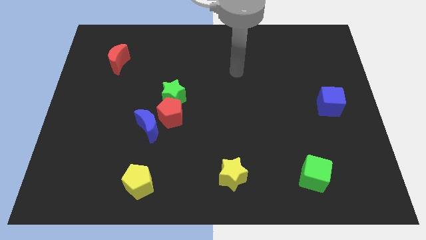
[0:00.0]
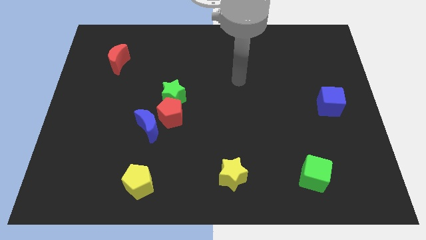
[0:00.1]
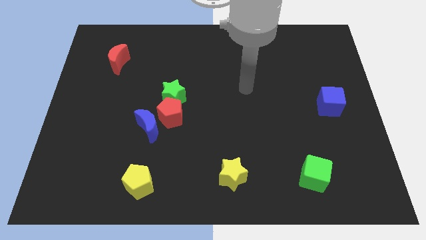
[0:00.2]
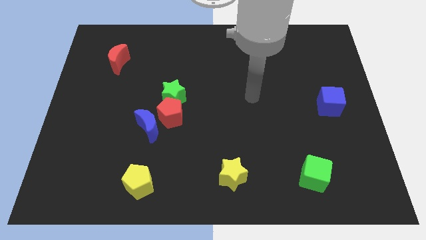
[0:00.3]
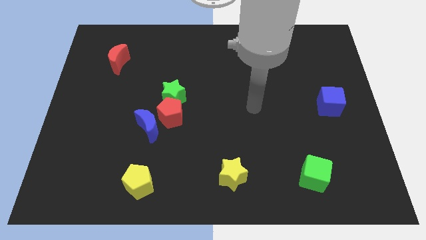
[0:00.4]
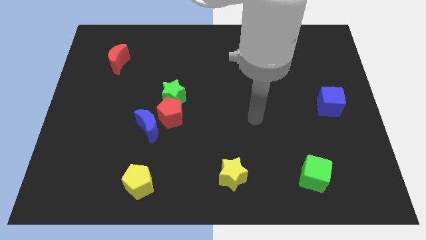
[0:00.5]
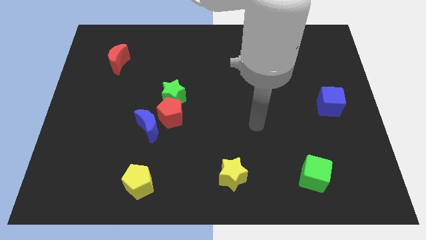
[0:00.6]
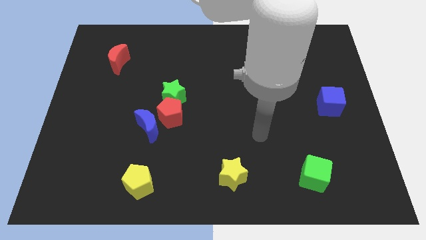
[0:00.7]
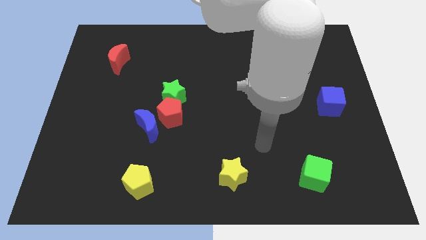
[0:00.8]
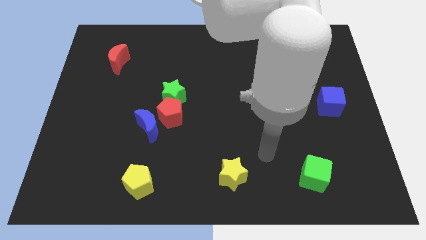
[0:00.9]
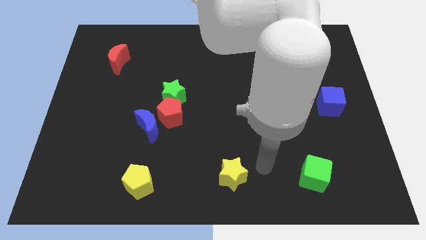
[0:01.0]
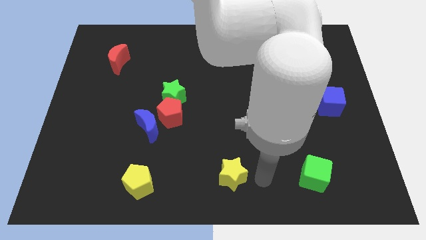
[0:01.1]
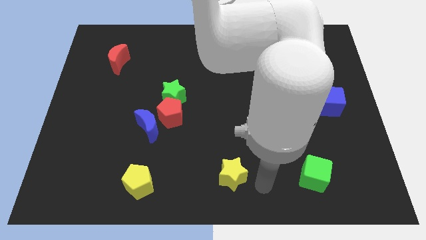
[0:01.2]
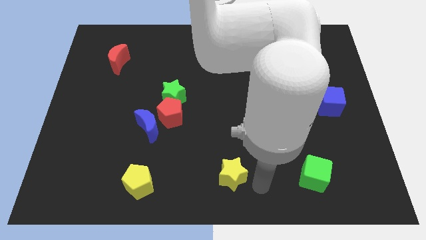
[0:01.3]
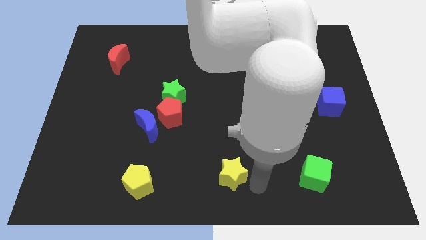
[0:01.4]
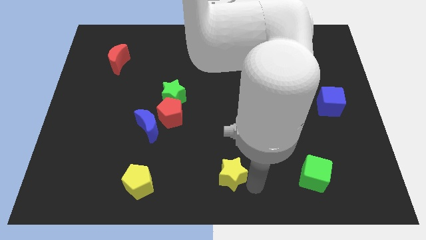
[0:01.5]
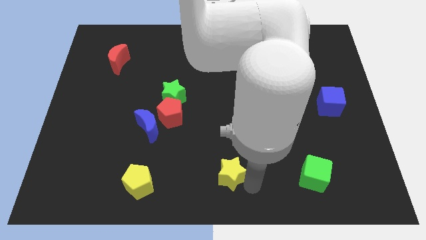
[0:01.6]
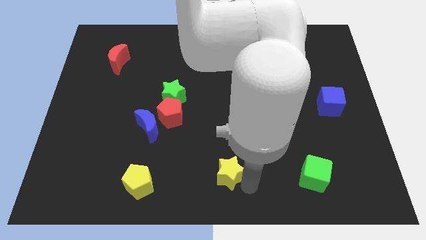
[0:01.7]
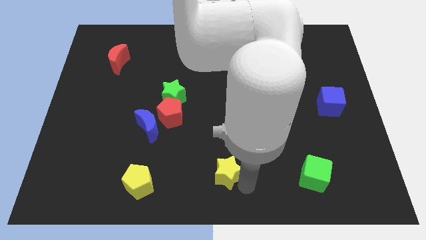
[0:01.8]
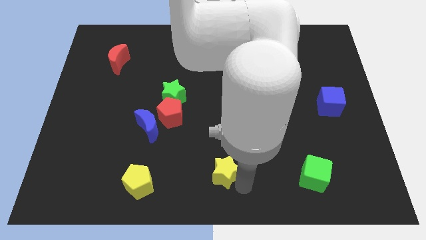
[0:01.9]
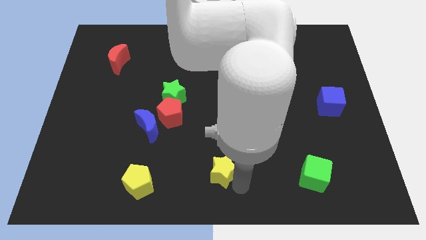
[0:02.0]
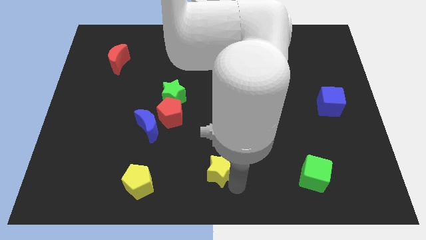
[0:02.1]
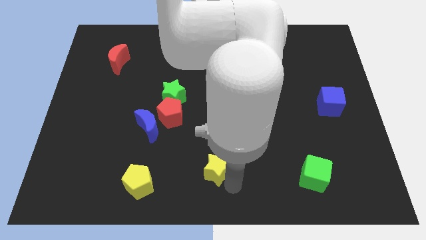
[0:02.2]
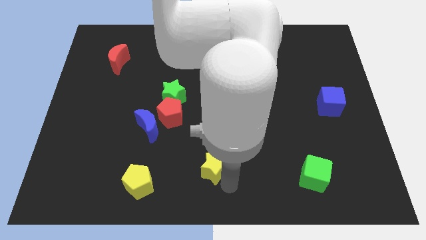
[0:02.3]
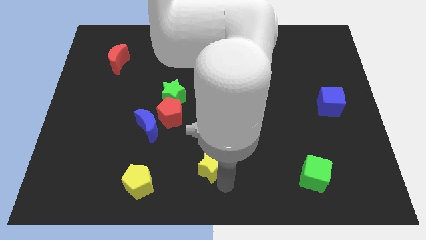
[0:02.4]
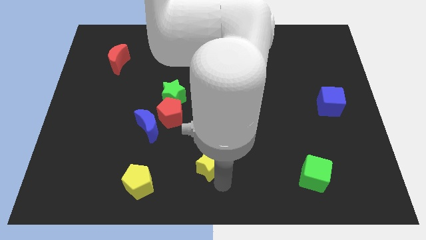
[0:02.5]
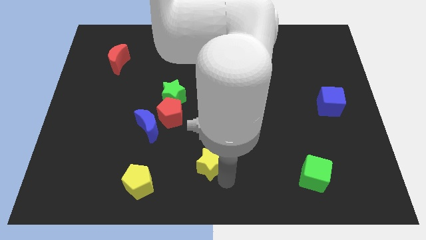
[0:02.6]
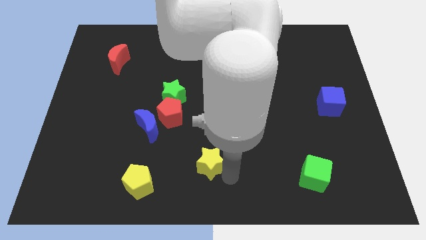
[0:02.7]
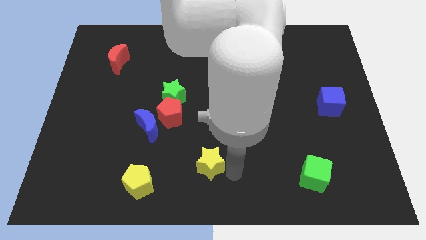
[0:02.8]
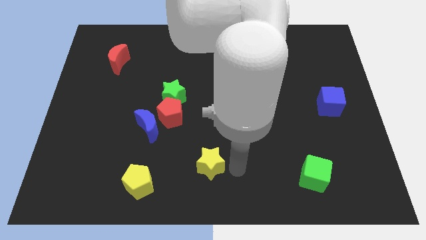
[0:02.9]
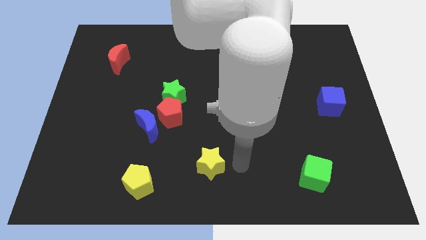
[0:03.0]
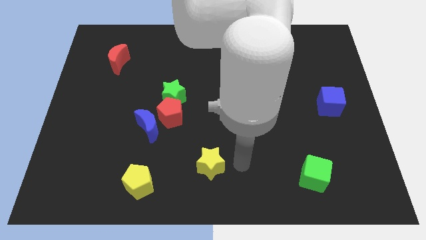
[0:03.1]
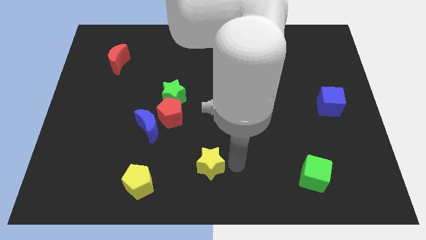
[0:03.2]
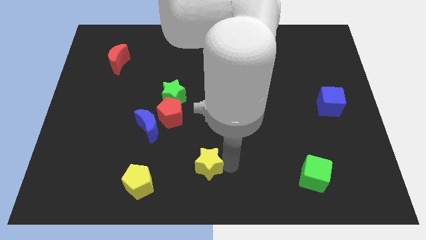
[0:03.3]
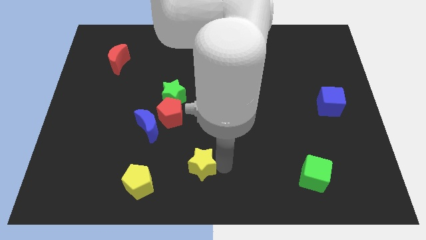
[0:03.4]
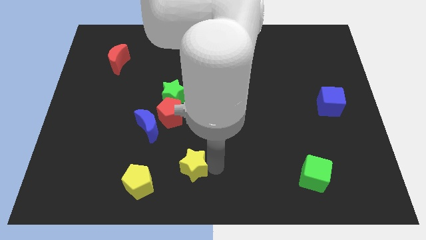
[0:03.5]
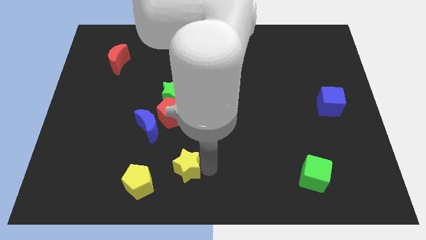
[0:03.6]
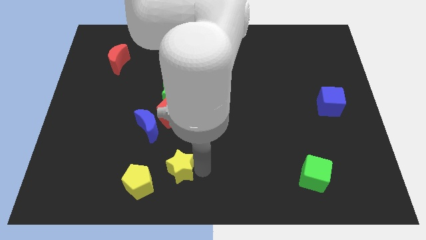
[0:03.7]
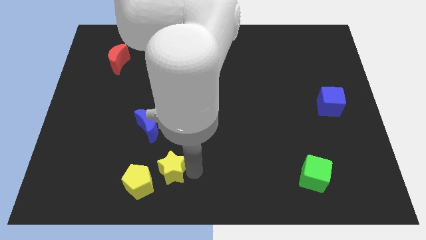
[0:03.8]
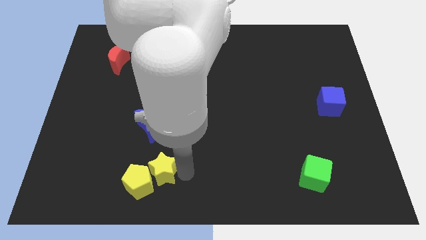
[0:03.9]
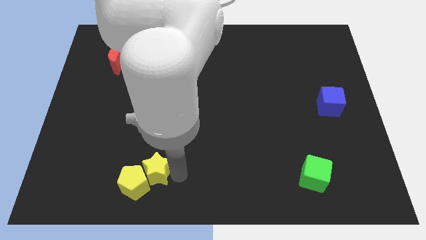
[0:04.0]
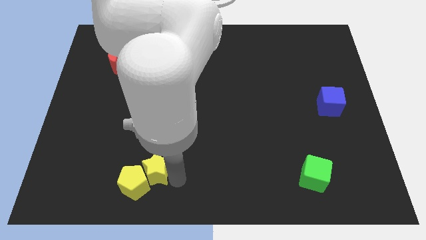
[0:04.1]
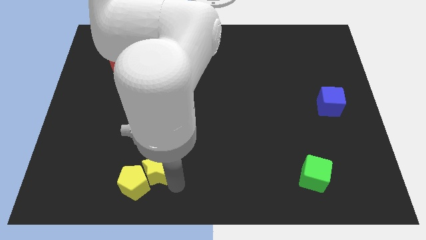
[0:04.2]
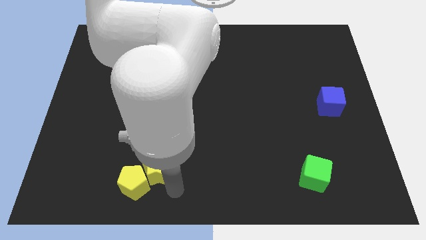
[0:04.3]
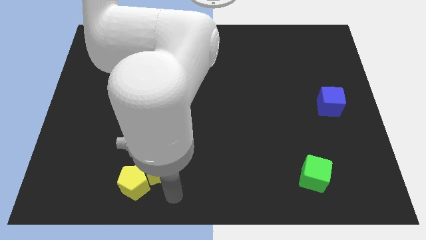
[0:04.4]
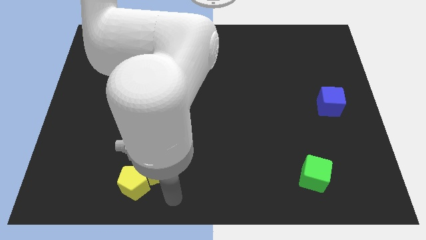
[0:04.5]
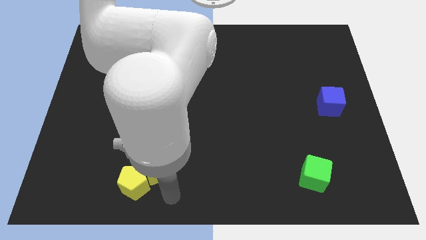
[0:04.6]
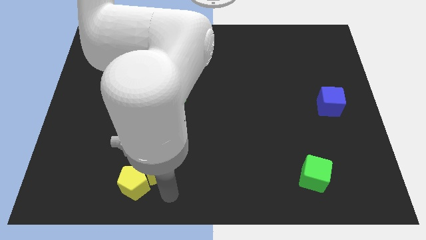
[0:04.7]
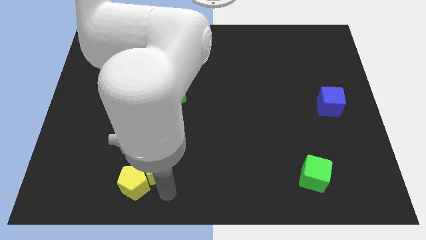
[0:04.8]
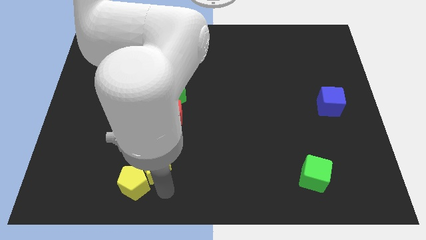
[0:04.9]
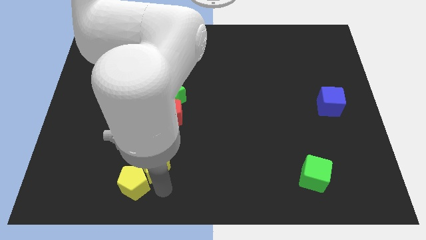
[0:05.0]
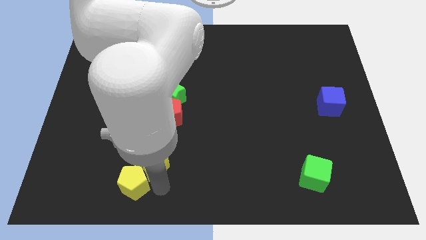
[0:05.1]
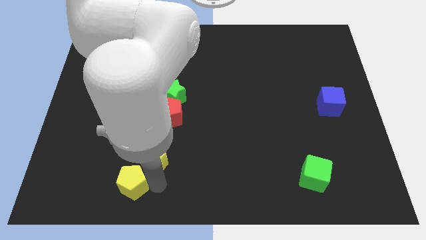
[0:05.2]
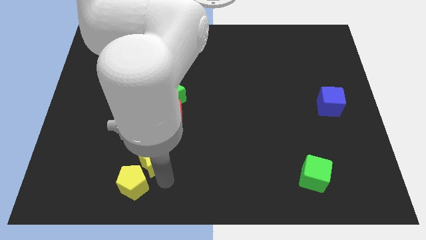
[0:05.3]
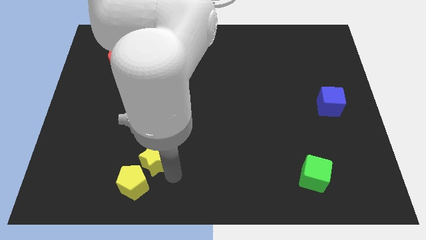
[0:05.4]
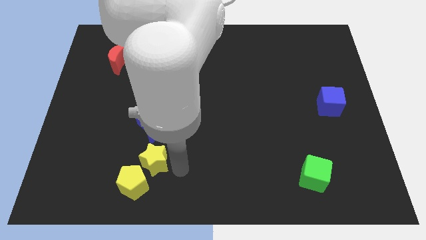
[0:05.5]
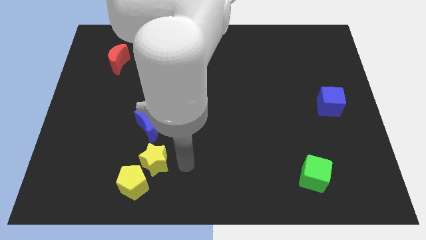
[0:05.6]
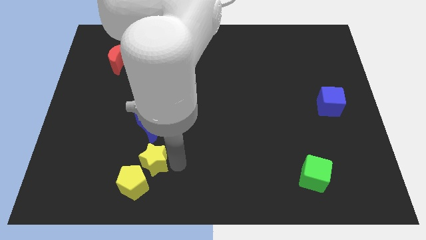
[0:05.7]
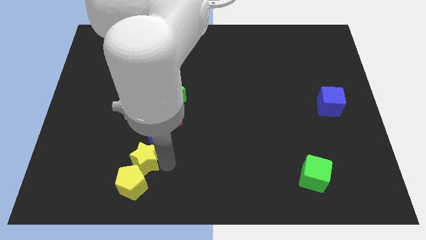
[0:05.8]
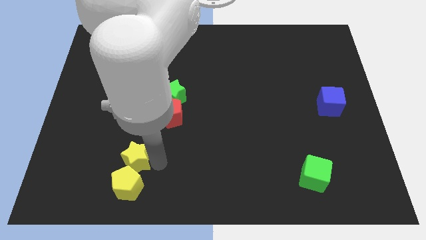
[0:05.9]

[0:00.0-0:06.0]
move the yellow star to the top left of the yellow pentagon

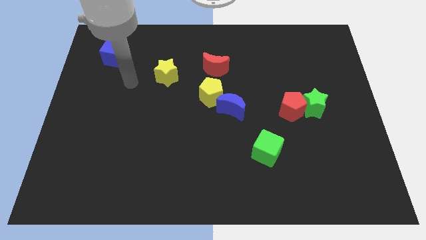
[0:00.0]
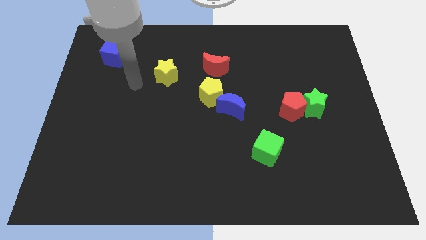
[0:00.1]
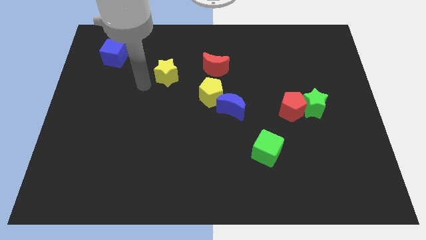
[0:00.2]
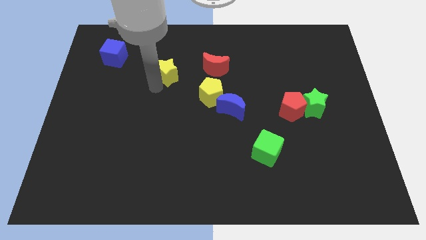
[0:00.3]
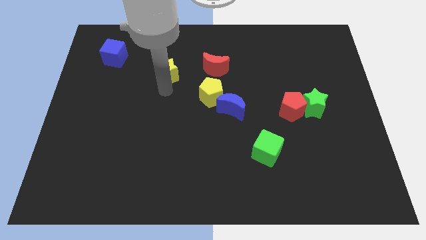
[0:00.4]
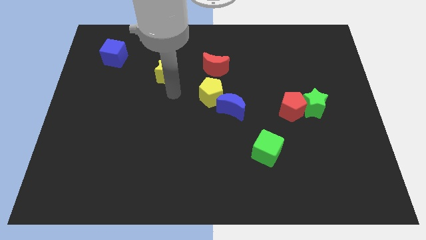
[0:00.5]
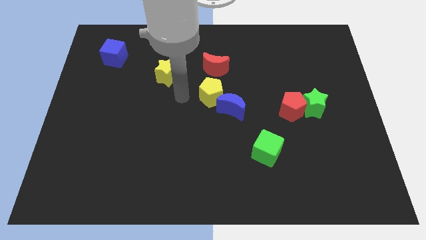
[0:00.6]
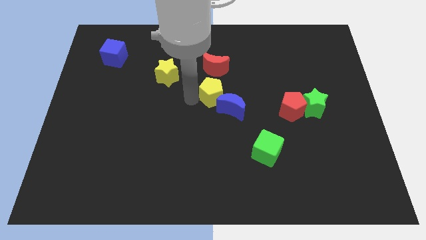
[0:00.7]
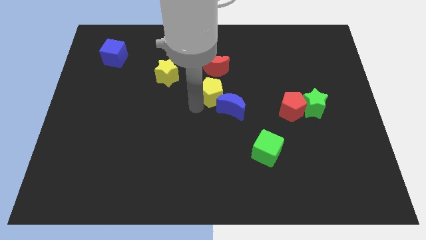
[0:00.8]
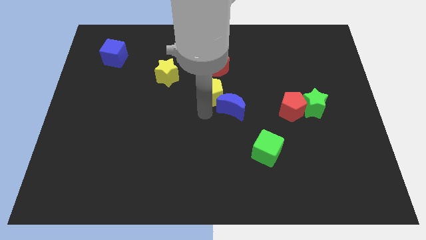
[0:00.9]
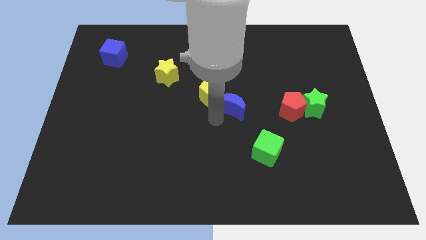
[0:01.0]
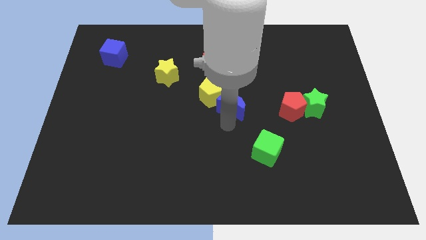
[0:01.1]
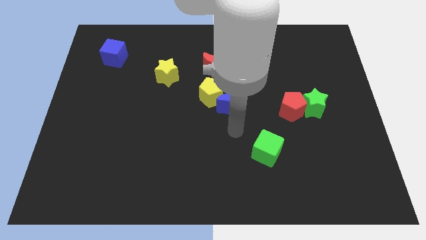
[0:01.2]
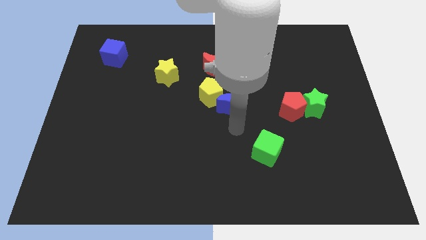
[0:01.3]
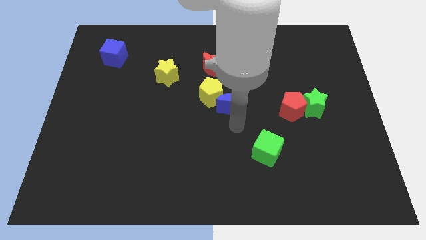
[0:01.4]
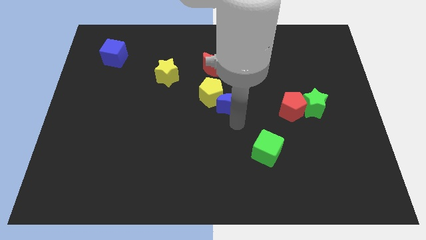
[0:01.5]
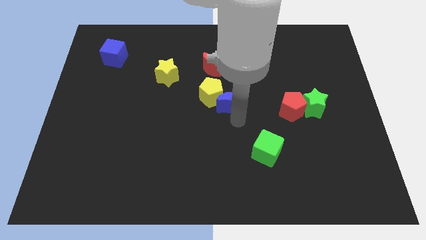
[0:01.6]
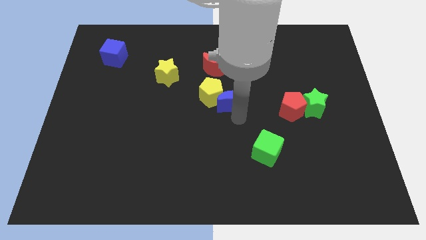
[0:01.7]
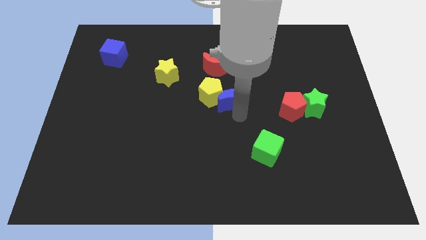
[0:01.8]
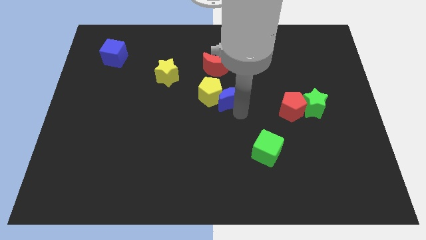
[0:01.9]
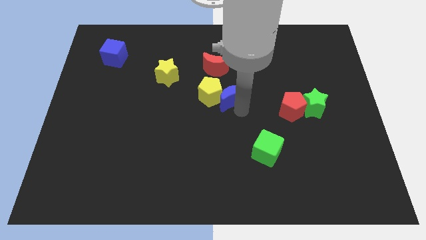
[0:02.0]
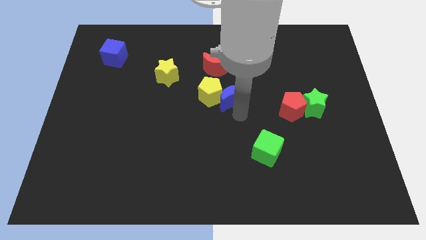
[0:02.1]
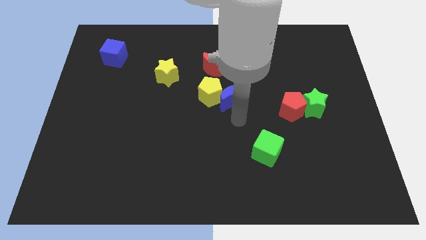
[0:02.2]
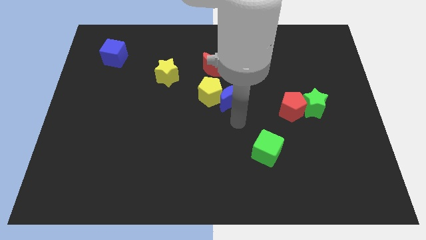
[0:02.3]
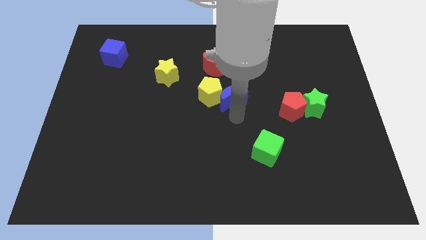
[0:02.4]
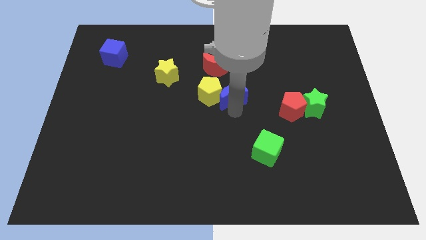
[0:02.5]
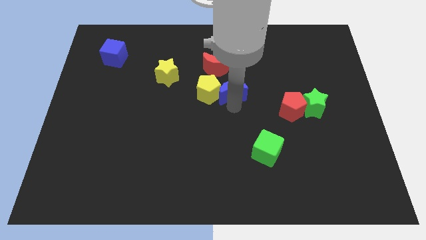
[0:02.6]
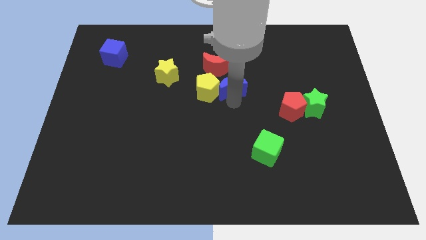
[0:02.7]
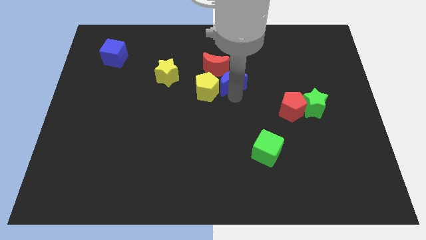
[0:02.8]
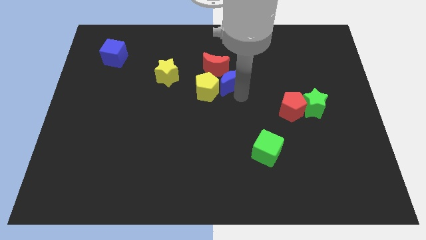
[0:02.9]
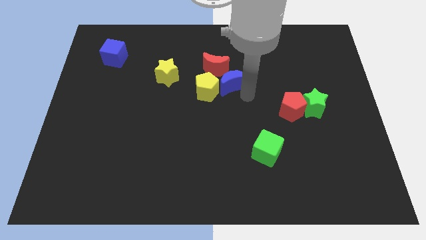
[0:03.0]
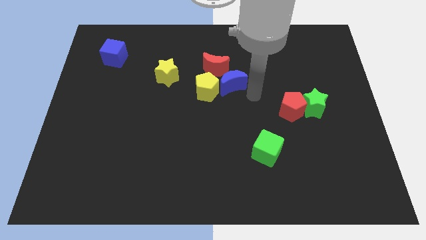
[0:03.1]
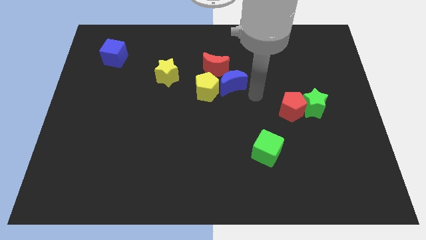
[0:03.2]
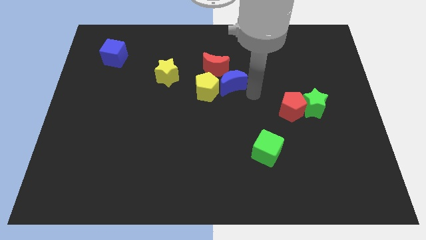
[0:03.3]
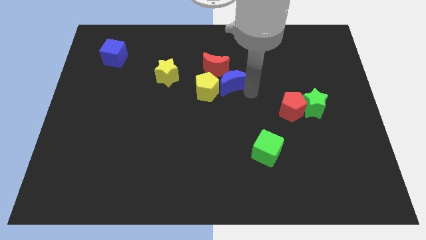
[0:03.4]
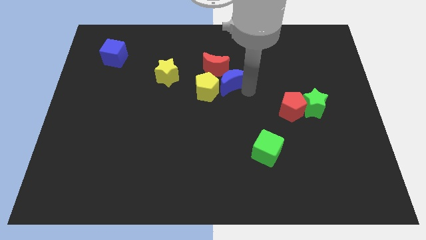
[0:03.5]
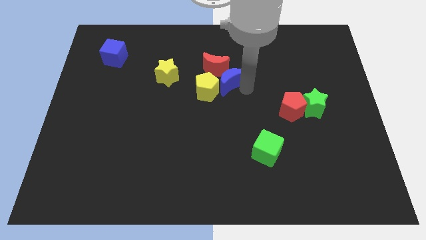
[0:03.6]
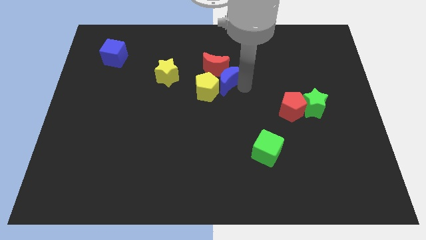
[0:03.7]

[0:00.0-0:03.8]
push the blue moon just right of the yellow star
